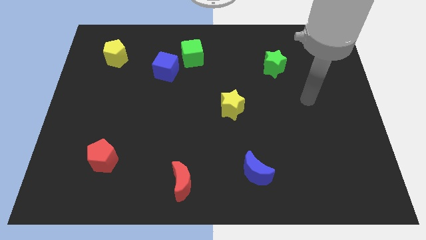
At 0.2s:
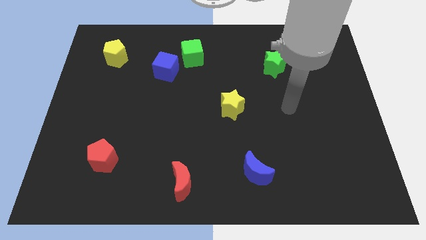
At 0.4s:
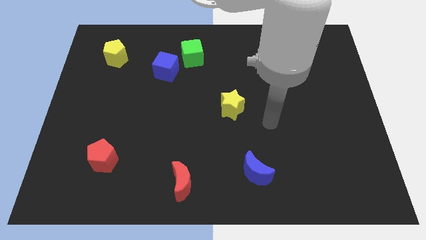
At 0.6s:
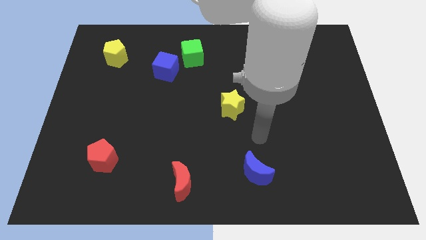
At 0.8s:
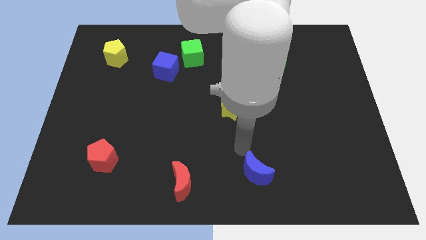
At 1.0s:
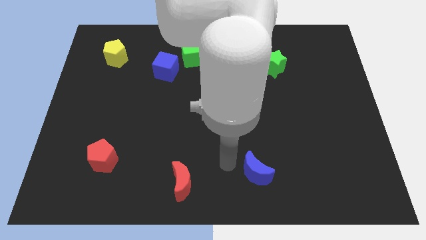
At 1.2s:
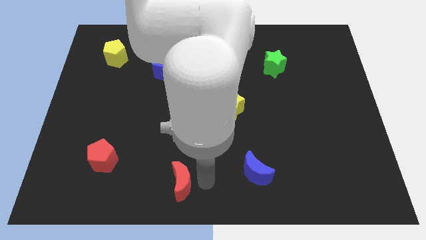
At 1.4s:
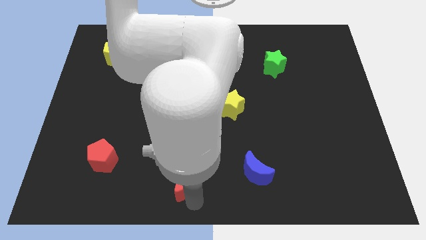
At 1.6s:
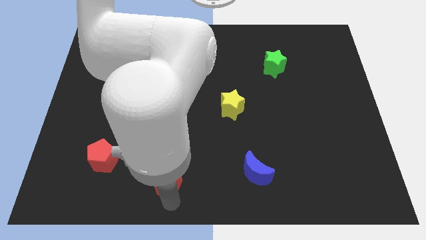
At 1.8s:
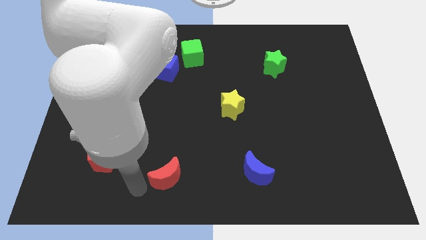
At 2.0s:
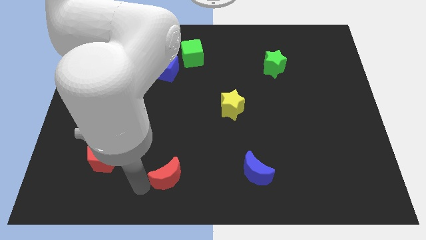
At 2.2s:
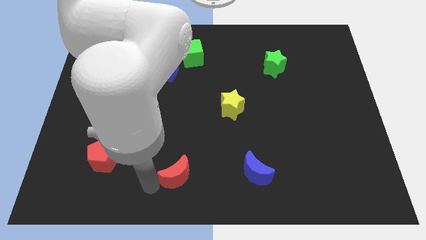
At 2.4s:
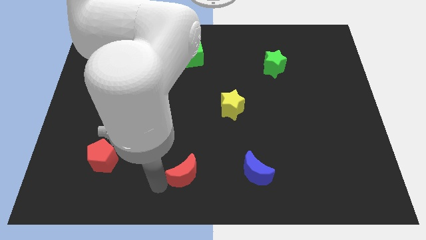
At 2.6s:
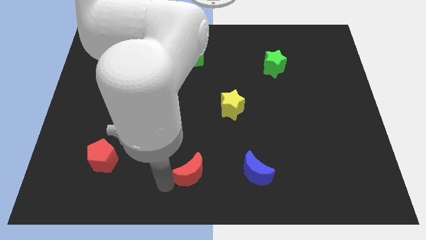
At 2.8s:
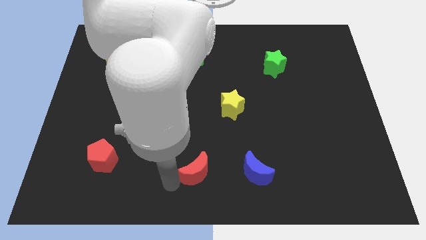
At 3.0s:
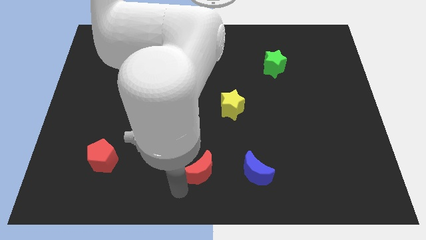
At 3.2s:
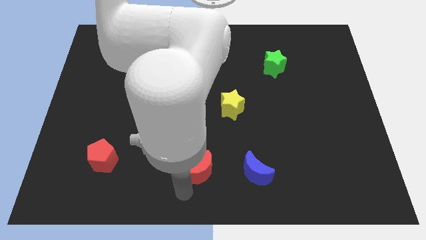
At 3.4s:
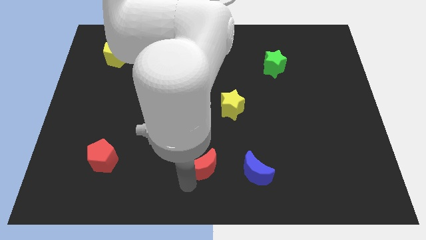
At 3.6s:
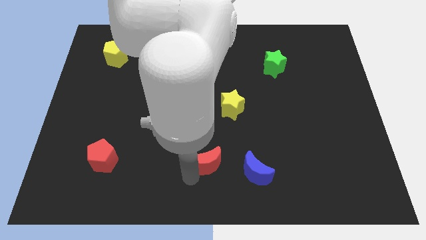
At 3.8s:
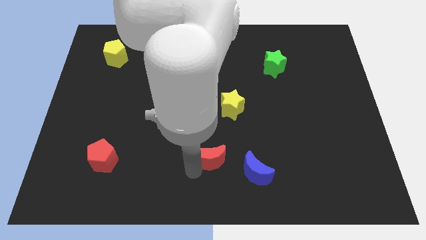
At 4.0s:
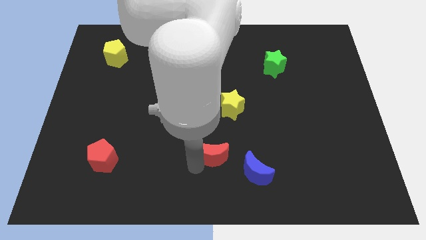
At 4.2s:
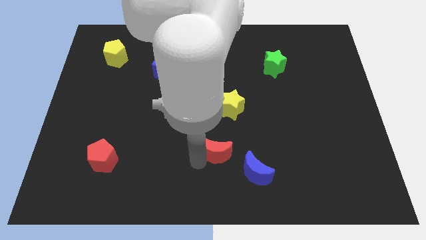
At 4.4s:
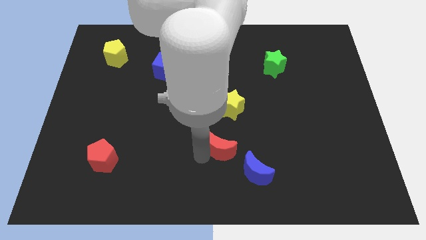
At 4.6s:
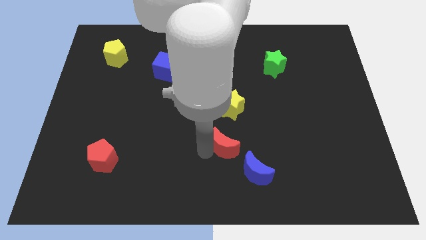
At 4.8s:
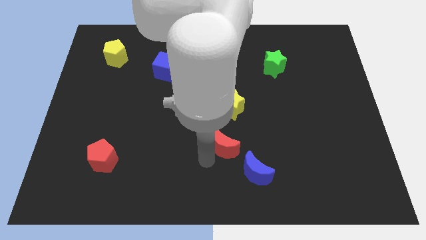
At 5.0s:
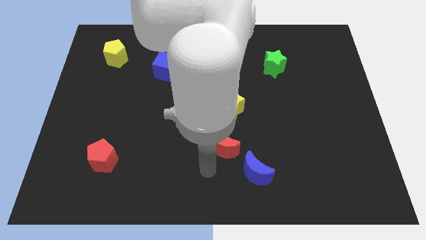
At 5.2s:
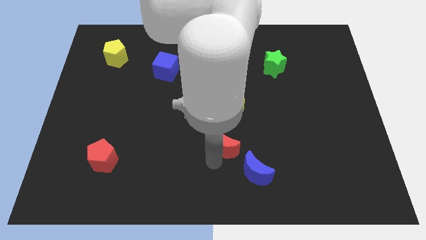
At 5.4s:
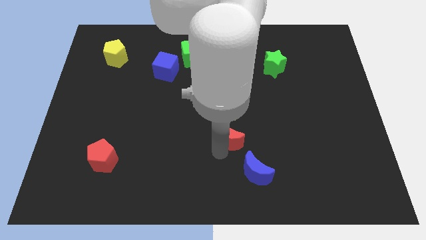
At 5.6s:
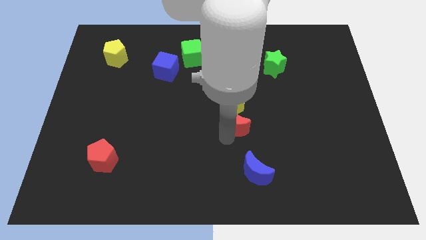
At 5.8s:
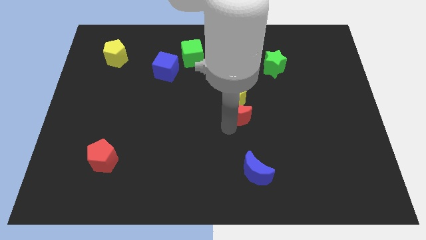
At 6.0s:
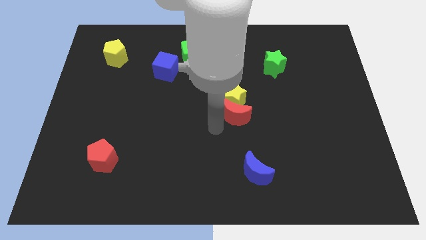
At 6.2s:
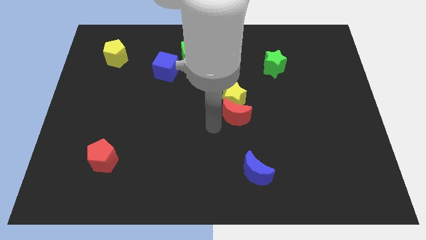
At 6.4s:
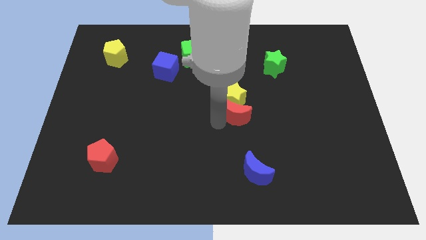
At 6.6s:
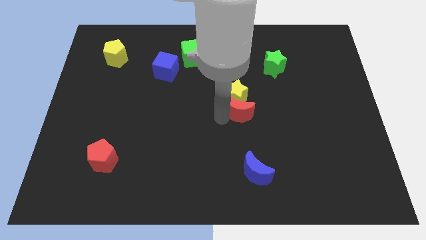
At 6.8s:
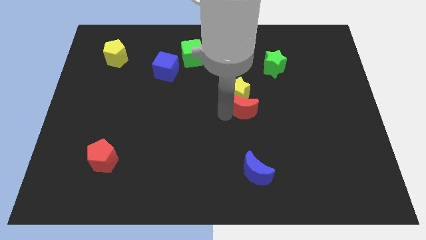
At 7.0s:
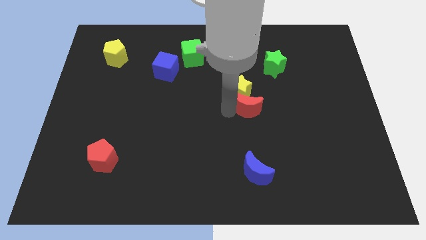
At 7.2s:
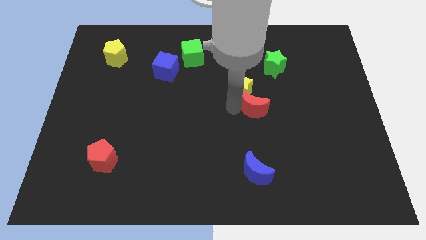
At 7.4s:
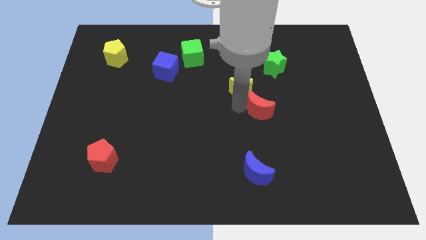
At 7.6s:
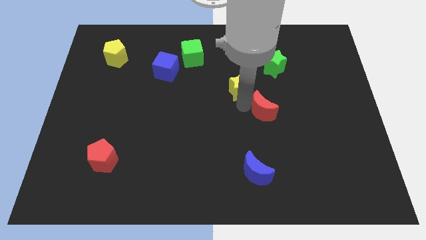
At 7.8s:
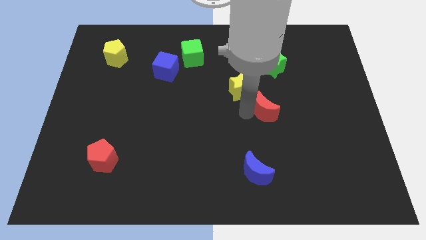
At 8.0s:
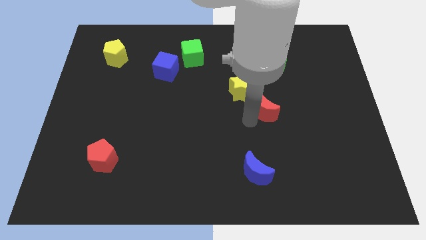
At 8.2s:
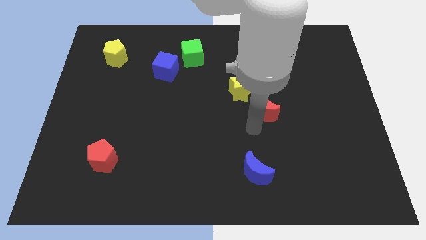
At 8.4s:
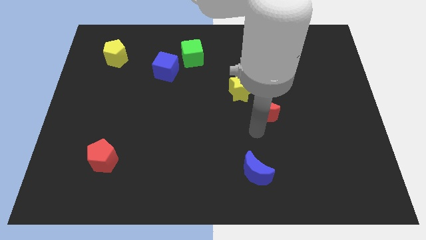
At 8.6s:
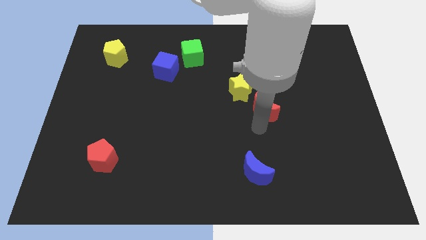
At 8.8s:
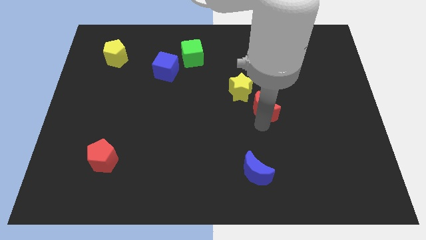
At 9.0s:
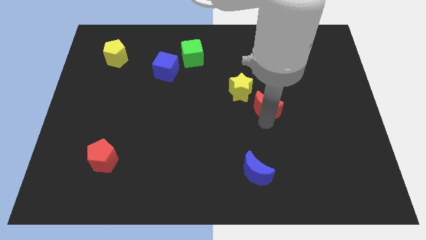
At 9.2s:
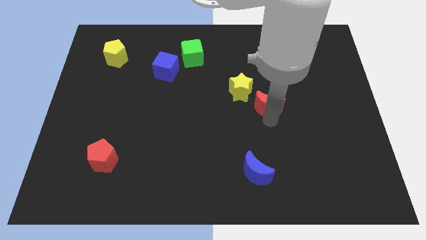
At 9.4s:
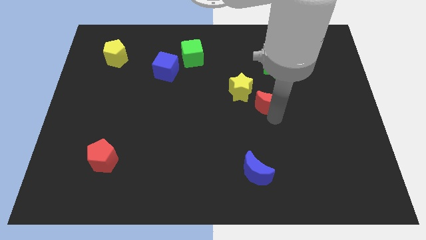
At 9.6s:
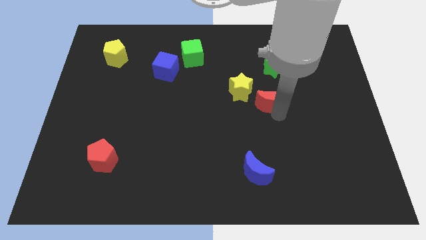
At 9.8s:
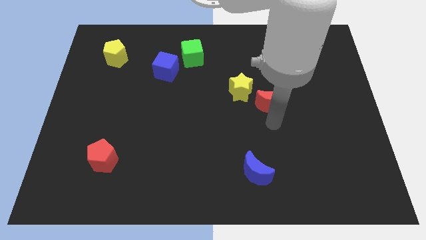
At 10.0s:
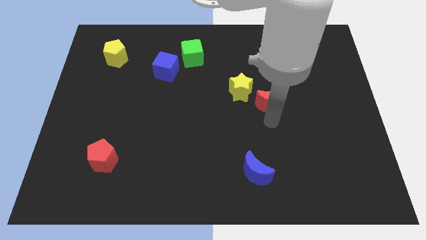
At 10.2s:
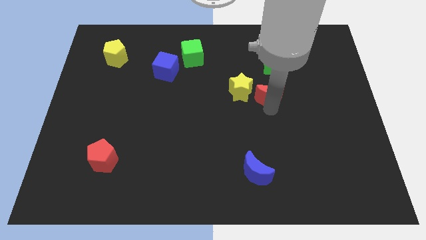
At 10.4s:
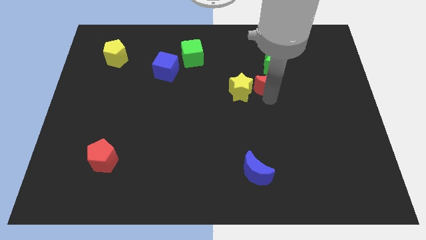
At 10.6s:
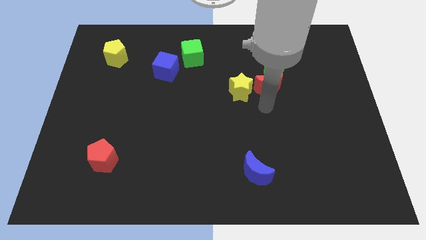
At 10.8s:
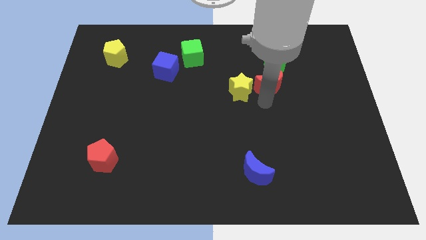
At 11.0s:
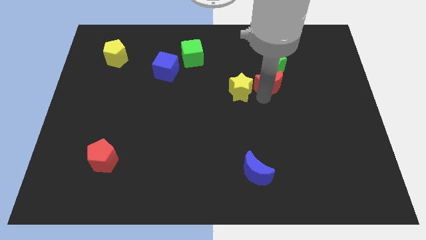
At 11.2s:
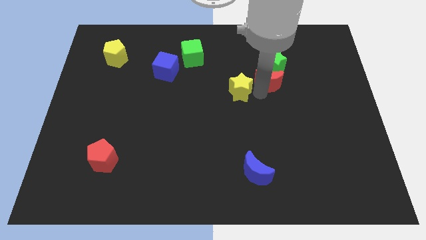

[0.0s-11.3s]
slide the red moon towards the green star
